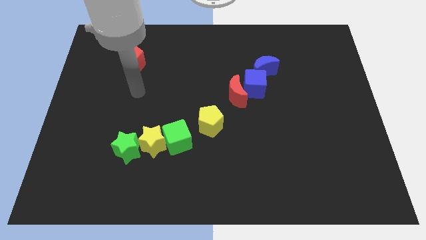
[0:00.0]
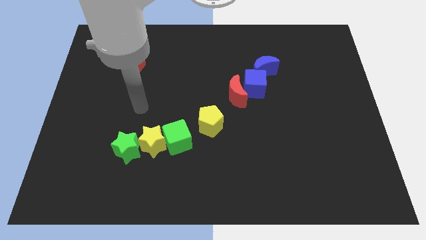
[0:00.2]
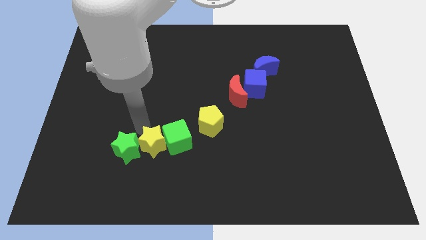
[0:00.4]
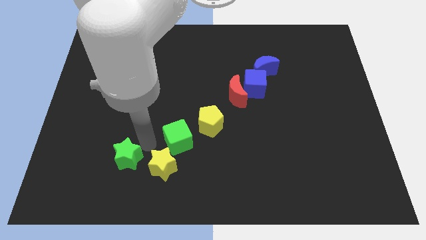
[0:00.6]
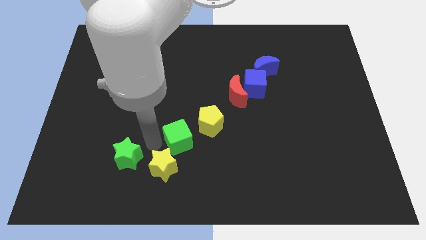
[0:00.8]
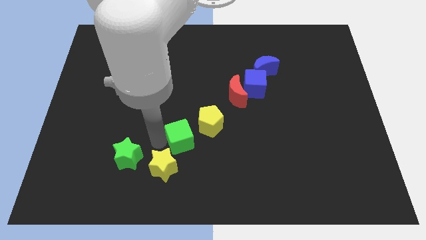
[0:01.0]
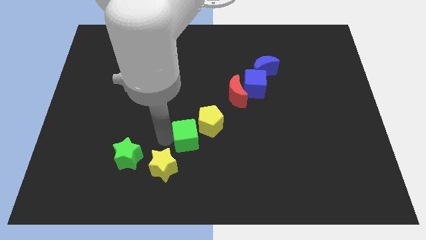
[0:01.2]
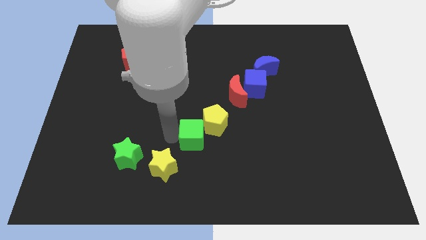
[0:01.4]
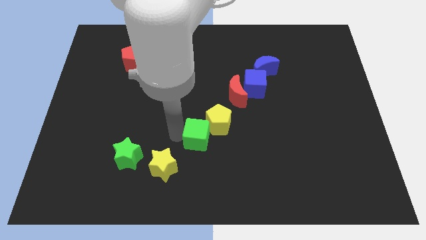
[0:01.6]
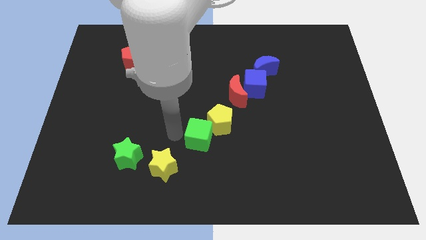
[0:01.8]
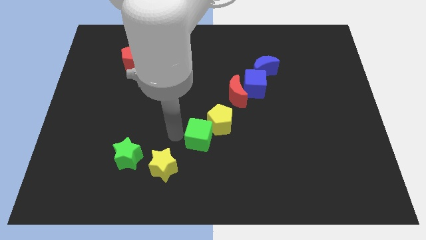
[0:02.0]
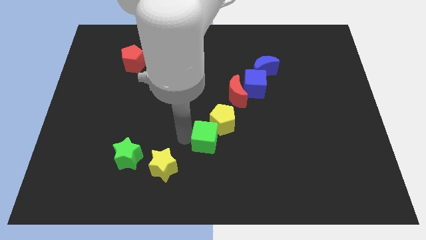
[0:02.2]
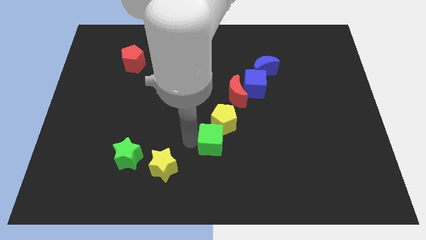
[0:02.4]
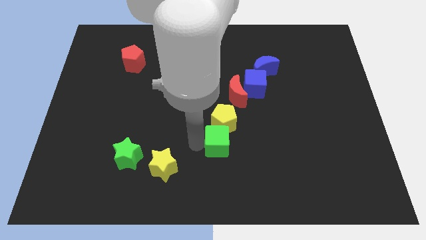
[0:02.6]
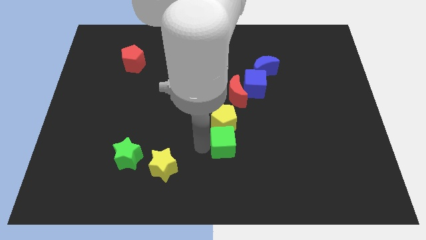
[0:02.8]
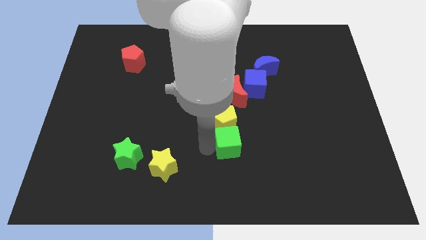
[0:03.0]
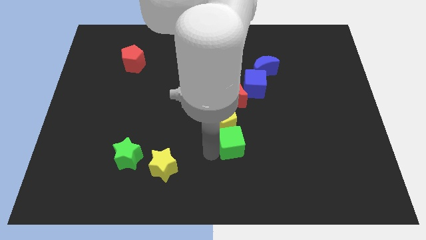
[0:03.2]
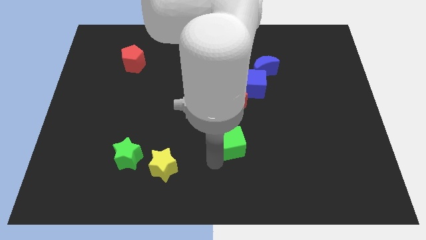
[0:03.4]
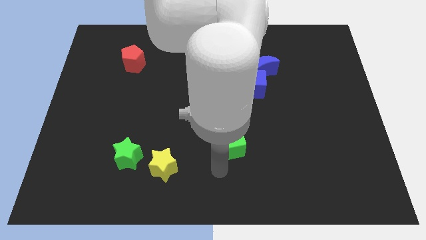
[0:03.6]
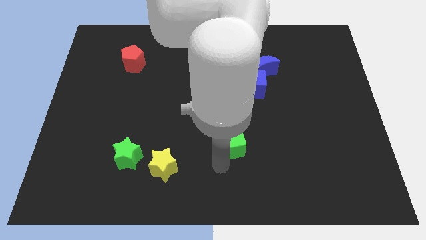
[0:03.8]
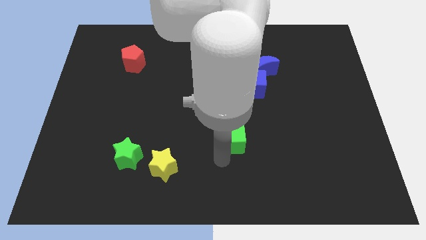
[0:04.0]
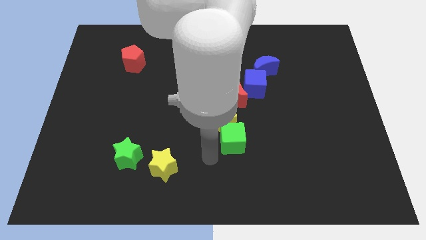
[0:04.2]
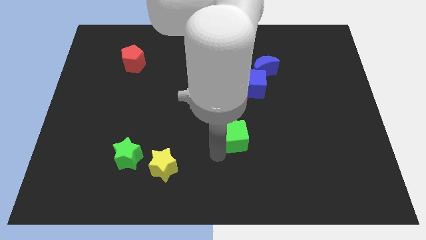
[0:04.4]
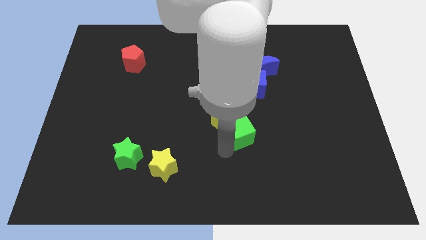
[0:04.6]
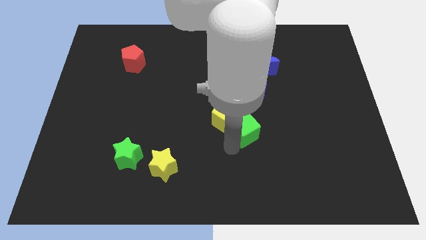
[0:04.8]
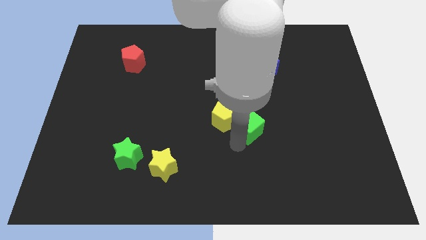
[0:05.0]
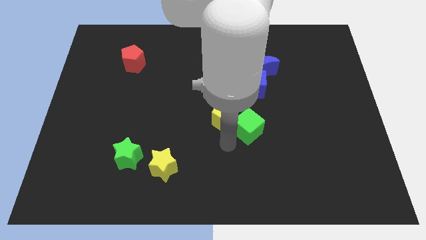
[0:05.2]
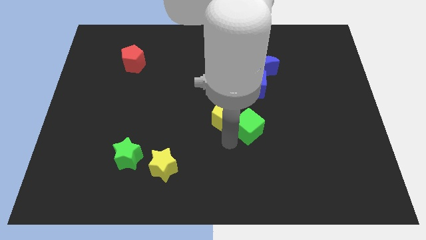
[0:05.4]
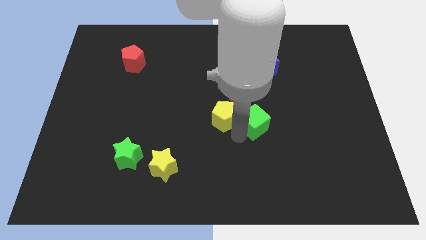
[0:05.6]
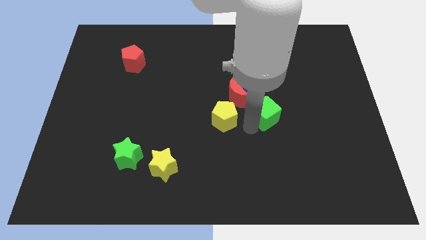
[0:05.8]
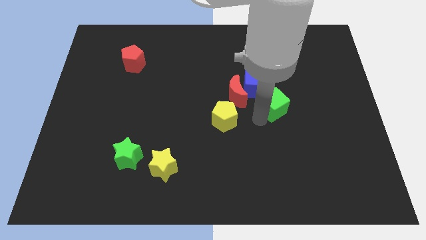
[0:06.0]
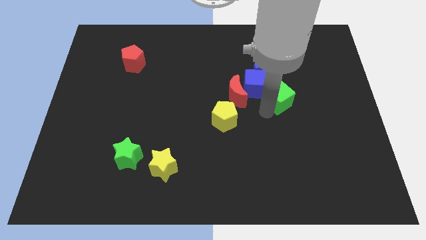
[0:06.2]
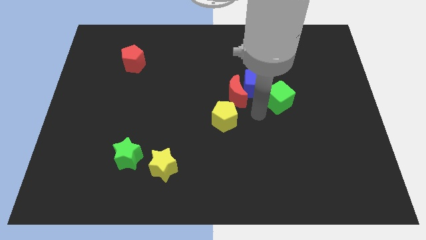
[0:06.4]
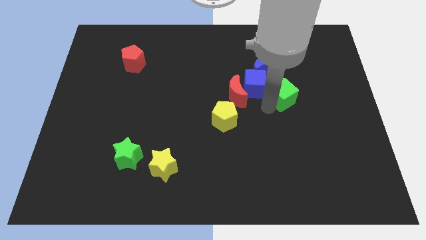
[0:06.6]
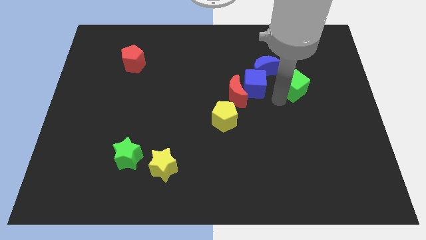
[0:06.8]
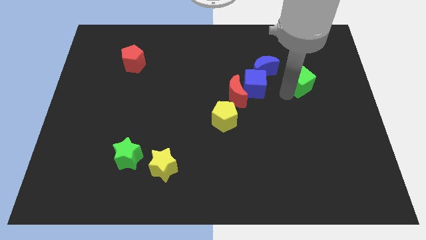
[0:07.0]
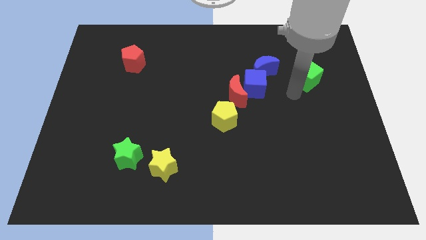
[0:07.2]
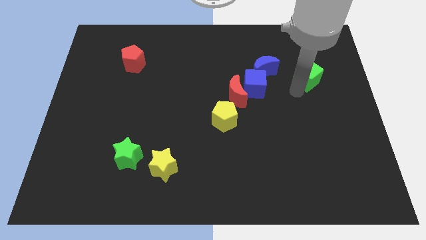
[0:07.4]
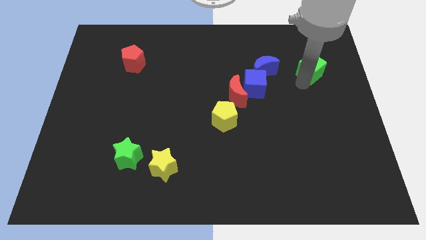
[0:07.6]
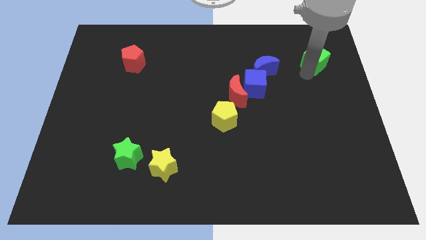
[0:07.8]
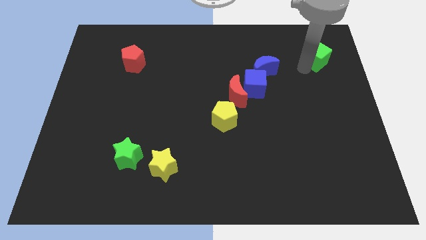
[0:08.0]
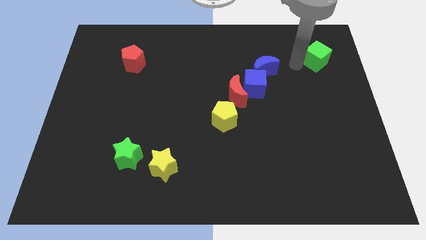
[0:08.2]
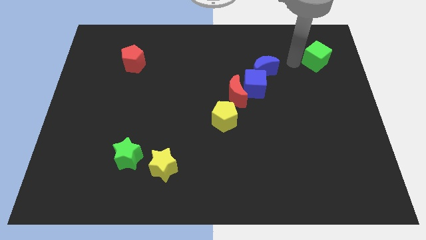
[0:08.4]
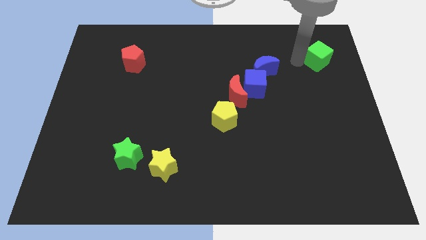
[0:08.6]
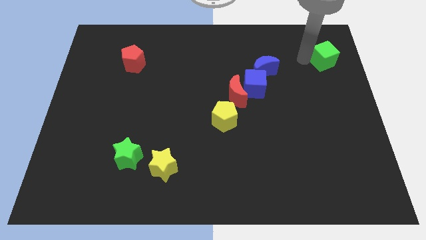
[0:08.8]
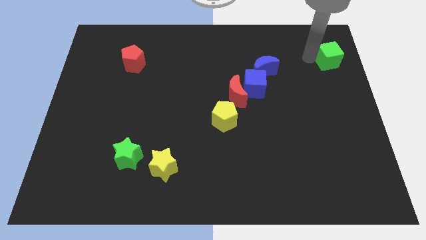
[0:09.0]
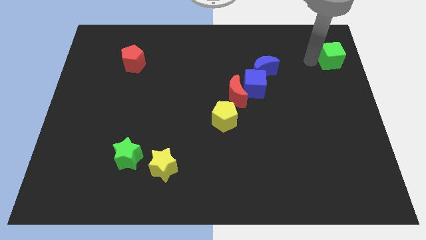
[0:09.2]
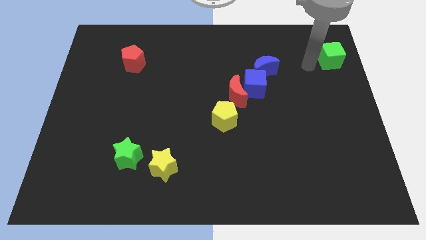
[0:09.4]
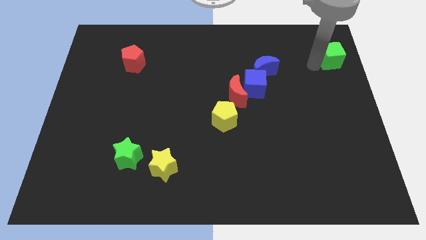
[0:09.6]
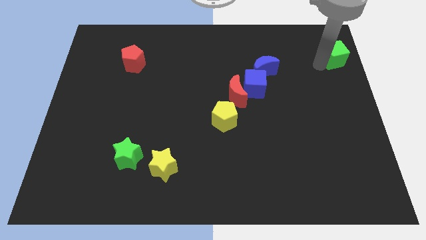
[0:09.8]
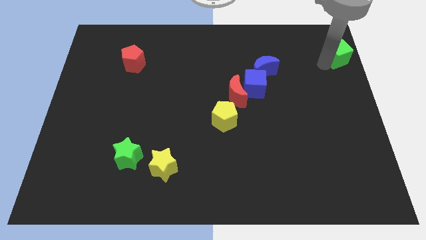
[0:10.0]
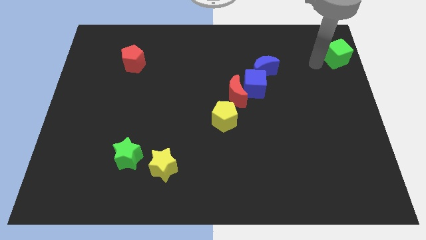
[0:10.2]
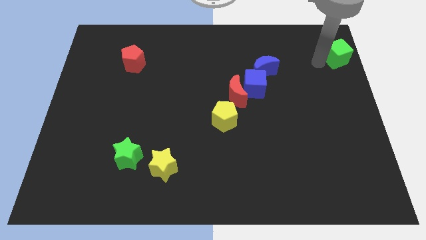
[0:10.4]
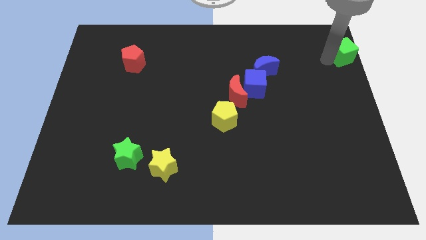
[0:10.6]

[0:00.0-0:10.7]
push the green cube to the top right of the board

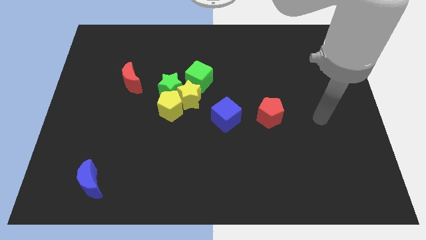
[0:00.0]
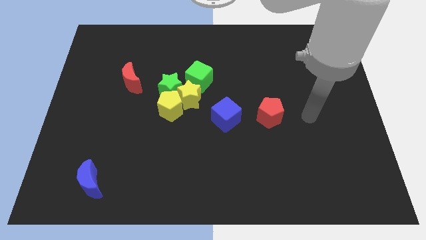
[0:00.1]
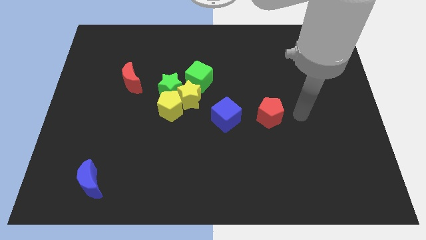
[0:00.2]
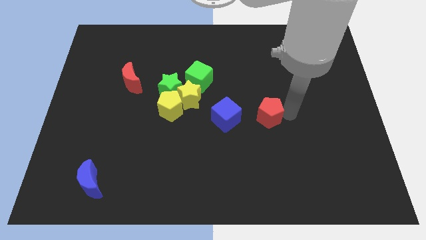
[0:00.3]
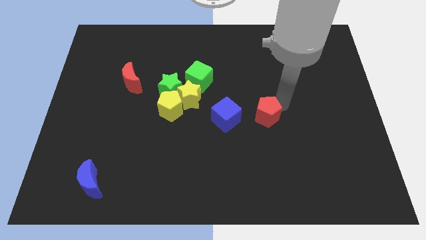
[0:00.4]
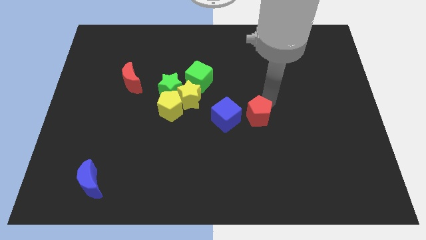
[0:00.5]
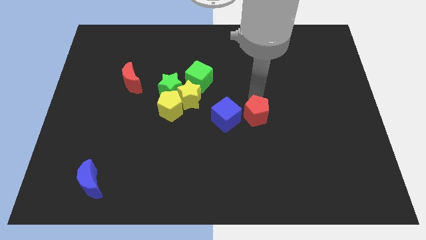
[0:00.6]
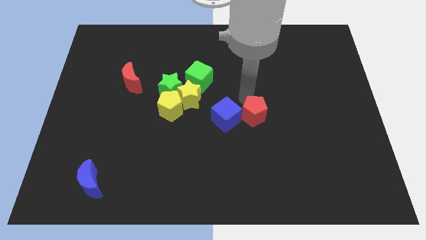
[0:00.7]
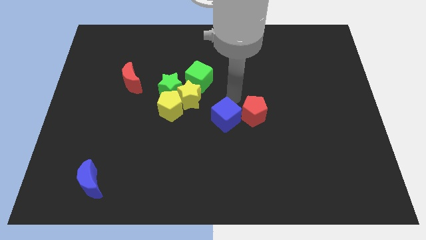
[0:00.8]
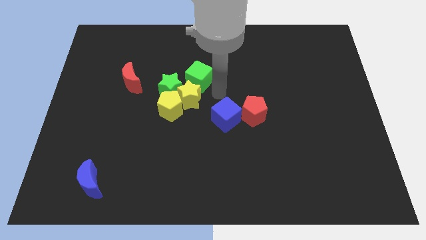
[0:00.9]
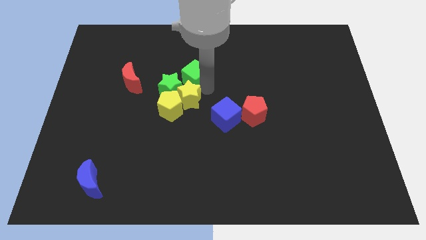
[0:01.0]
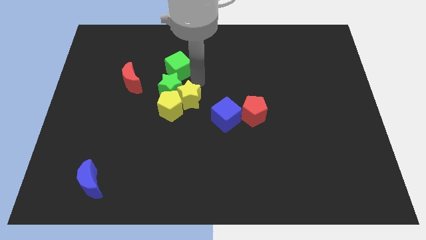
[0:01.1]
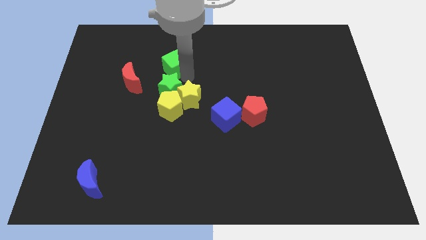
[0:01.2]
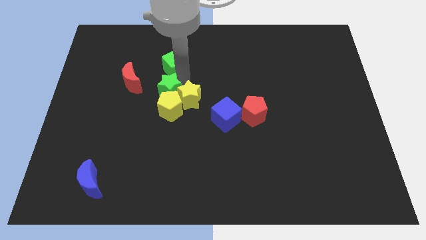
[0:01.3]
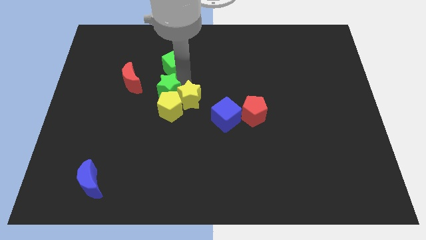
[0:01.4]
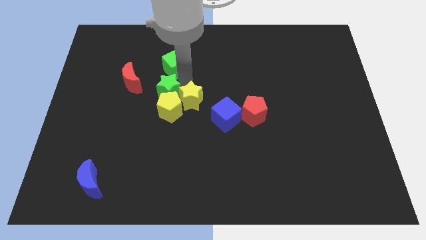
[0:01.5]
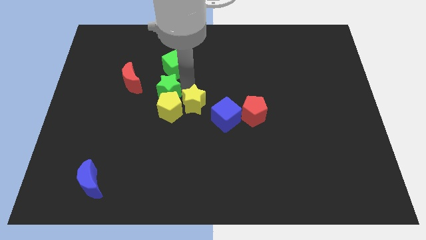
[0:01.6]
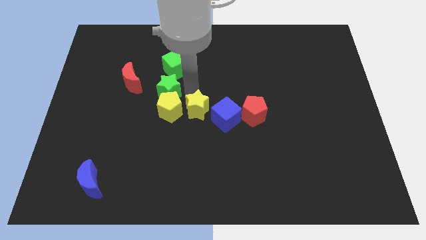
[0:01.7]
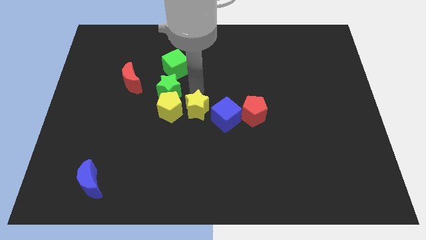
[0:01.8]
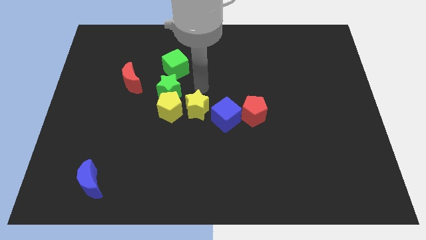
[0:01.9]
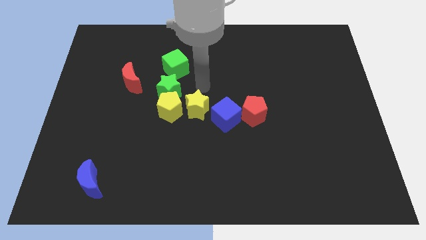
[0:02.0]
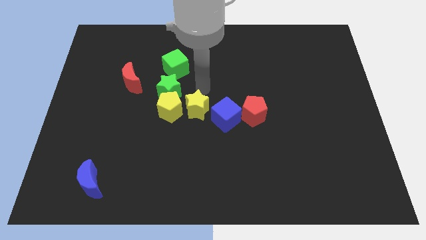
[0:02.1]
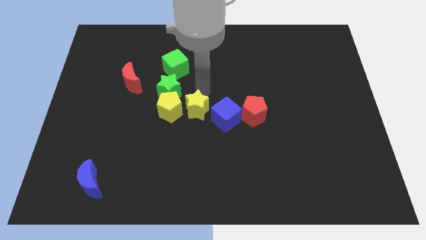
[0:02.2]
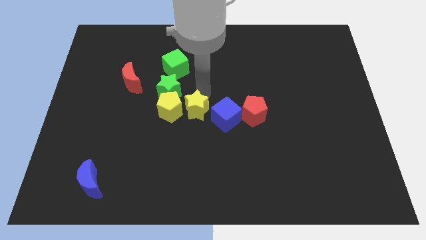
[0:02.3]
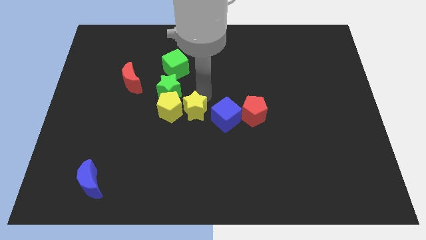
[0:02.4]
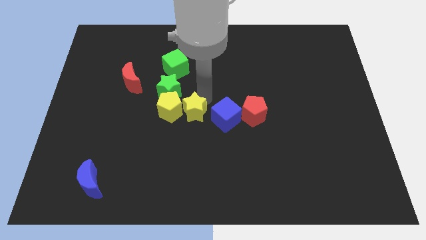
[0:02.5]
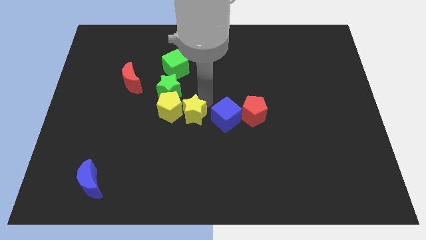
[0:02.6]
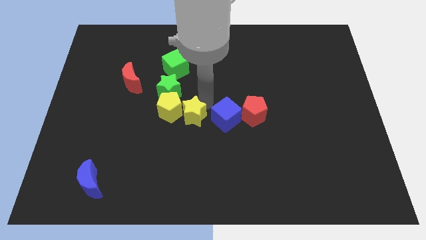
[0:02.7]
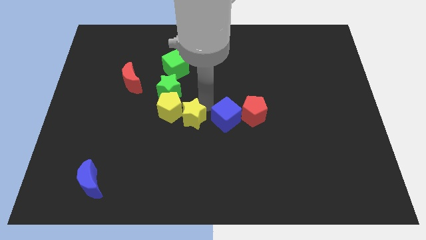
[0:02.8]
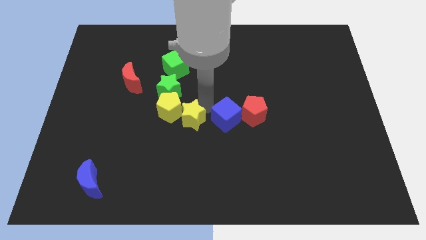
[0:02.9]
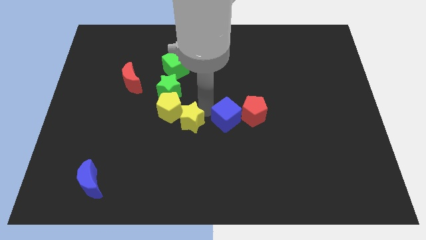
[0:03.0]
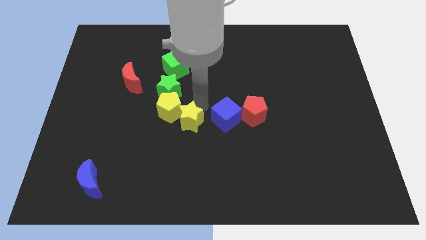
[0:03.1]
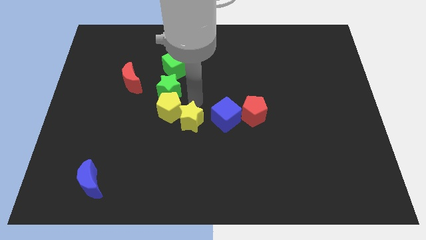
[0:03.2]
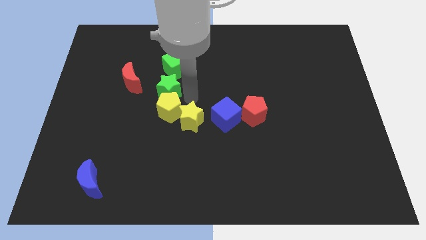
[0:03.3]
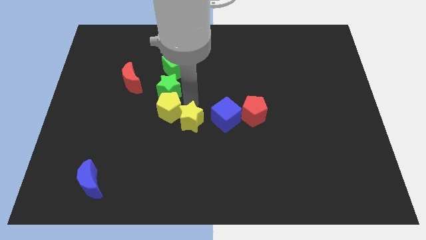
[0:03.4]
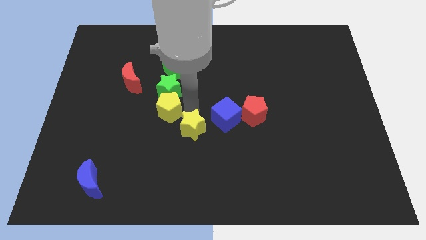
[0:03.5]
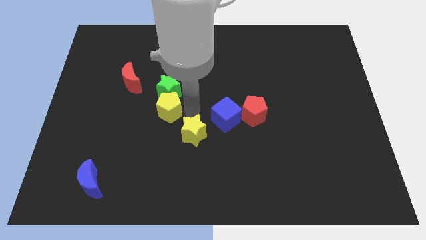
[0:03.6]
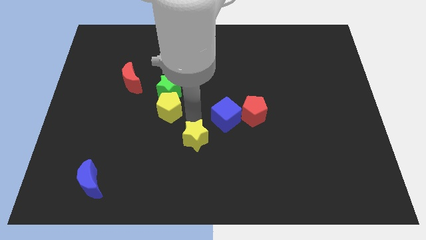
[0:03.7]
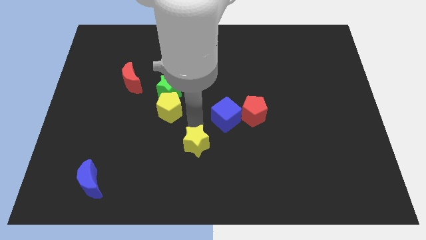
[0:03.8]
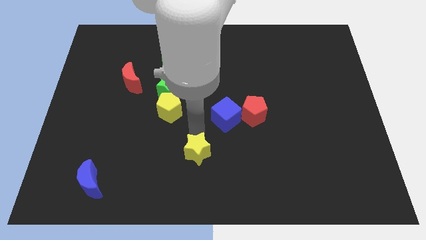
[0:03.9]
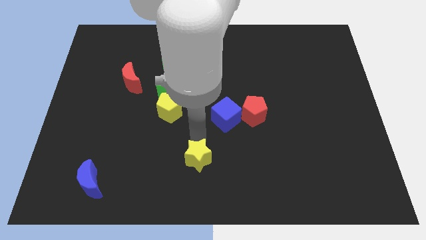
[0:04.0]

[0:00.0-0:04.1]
put the yellow star to the bottom side
